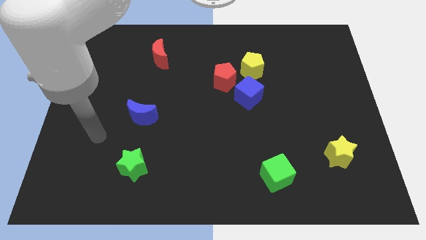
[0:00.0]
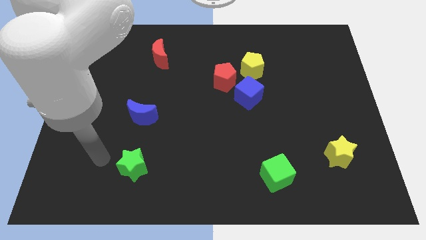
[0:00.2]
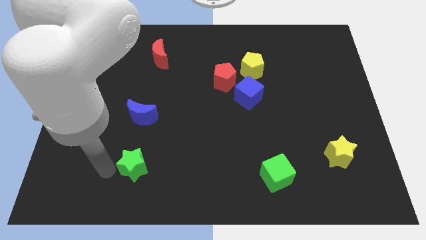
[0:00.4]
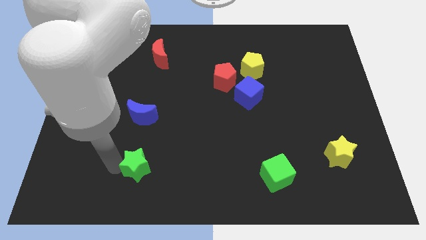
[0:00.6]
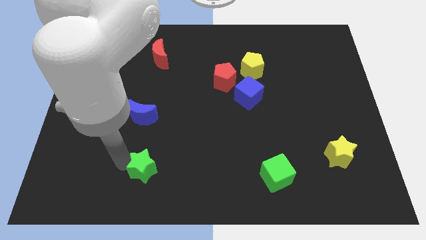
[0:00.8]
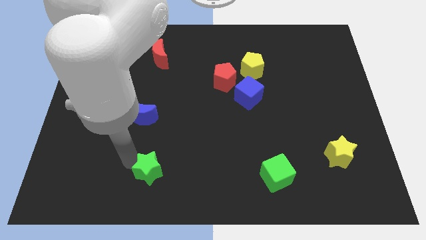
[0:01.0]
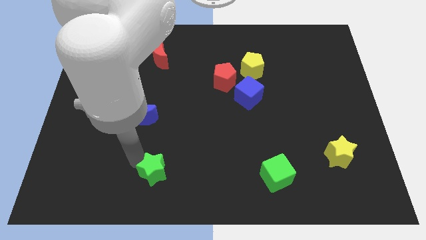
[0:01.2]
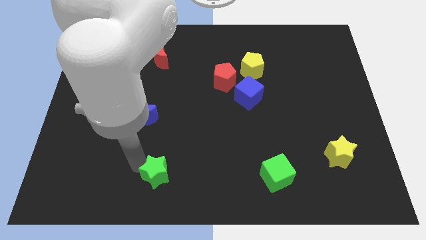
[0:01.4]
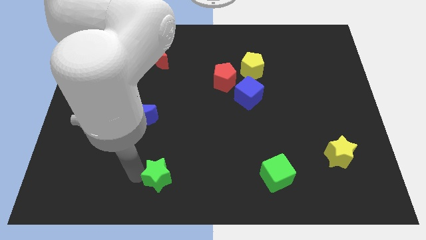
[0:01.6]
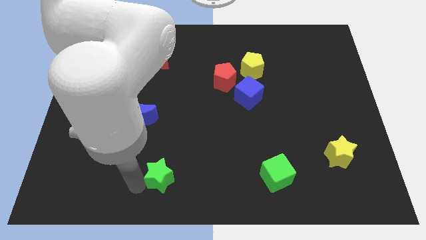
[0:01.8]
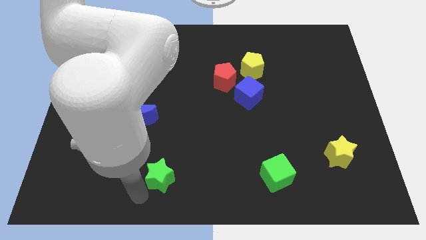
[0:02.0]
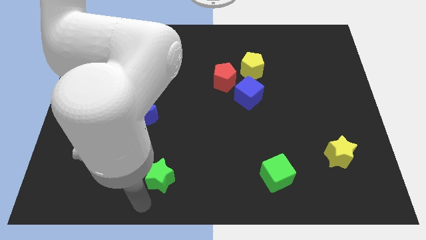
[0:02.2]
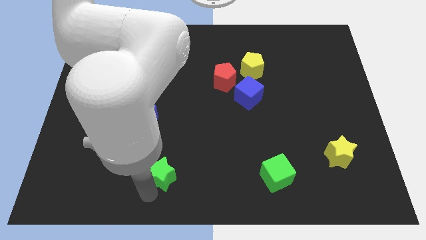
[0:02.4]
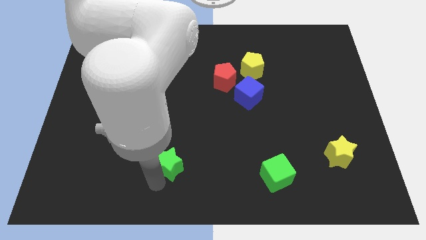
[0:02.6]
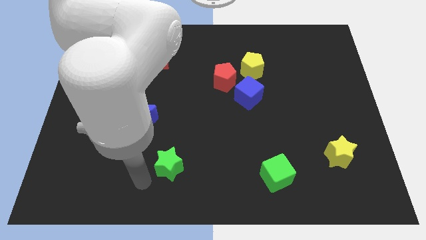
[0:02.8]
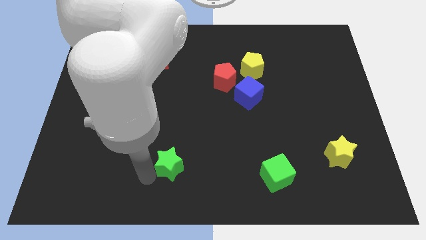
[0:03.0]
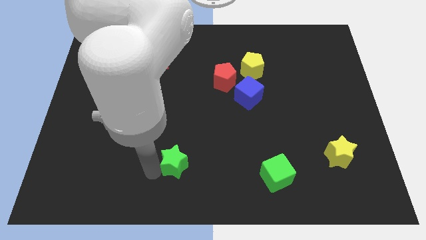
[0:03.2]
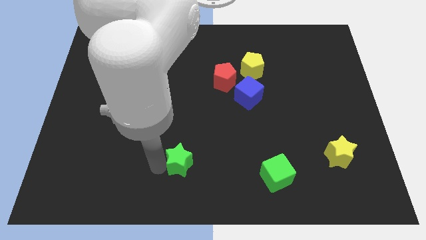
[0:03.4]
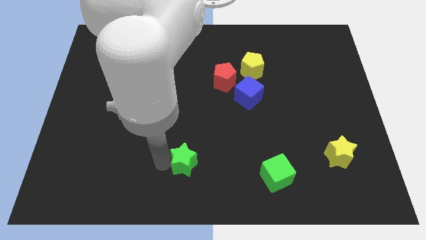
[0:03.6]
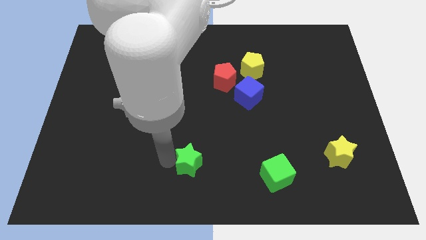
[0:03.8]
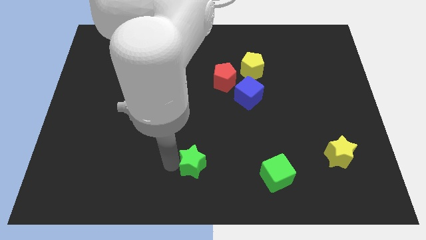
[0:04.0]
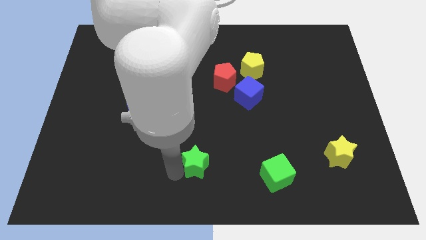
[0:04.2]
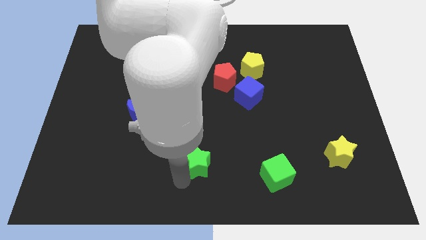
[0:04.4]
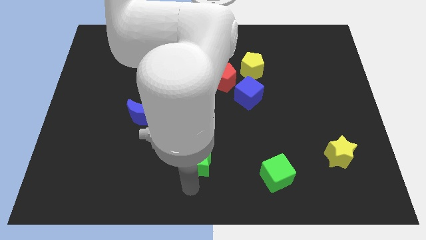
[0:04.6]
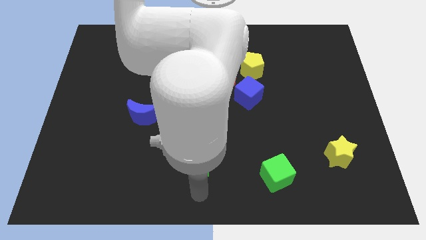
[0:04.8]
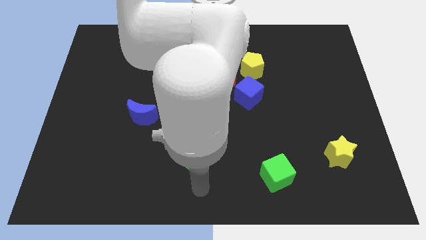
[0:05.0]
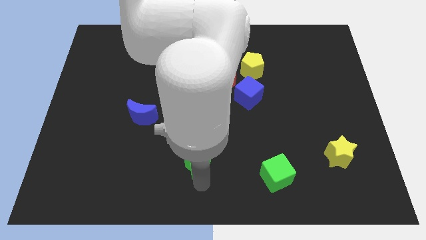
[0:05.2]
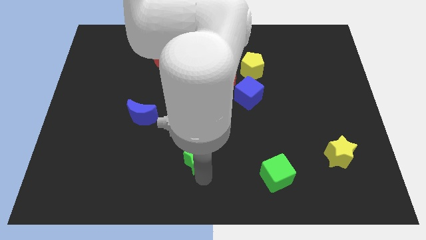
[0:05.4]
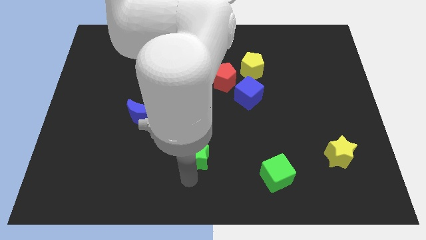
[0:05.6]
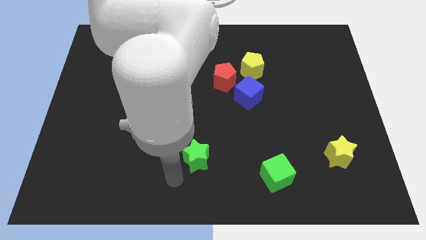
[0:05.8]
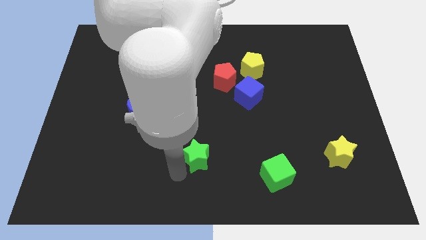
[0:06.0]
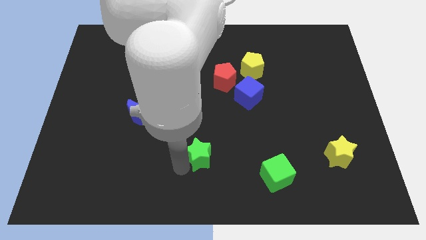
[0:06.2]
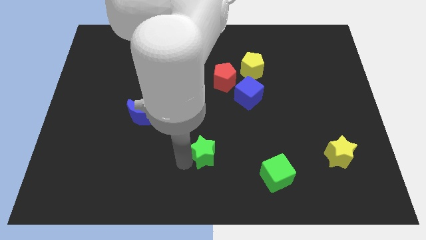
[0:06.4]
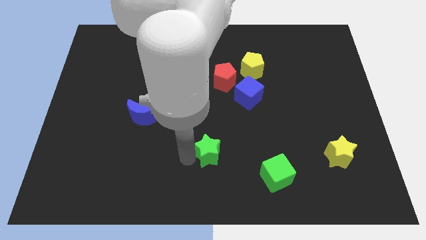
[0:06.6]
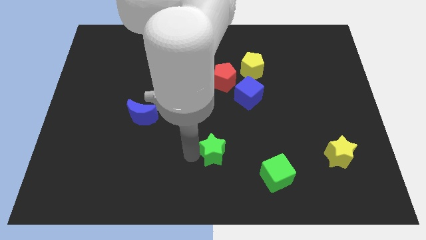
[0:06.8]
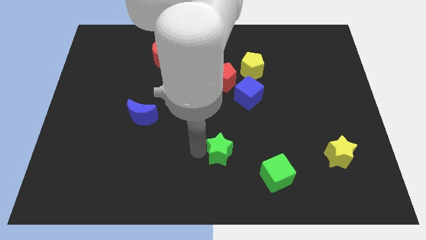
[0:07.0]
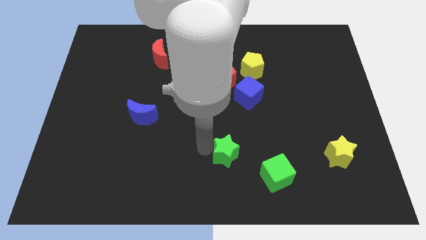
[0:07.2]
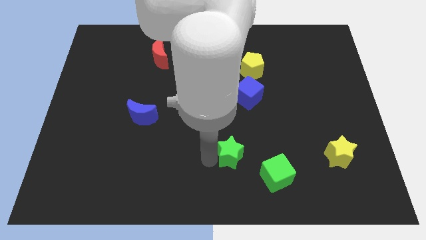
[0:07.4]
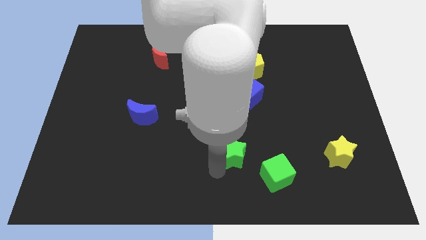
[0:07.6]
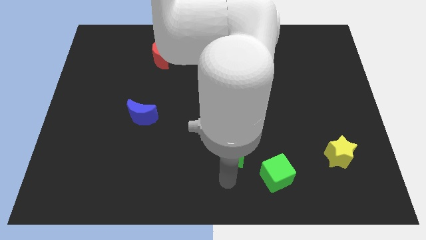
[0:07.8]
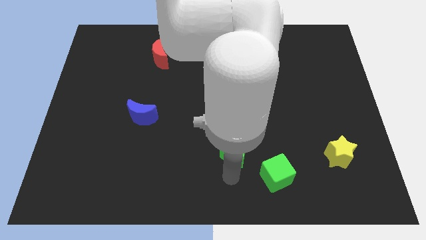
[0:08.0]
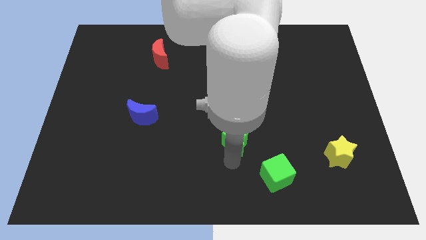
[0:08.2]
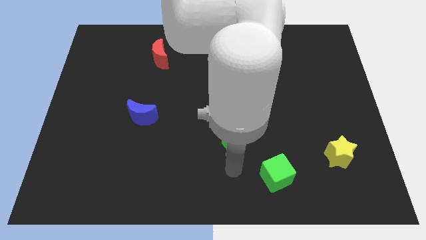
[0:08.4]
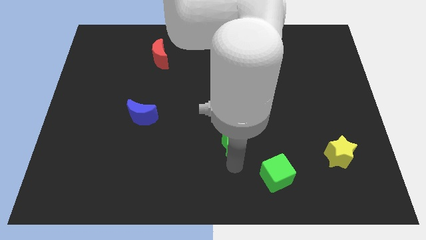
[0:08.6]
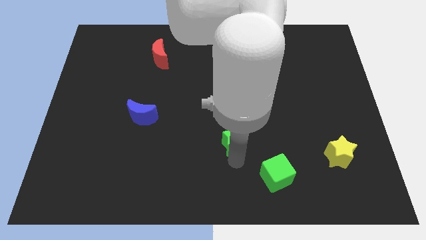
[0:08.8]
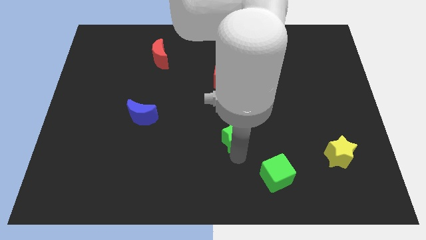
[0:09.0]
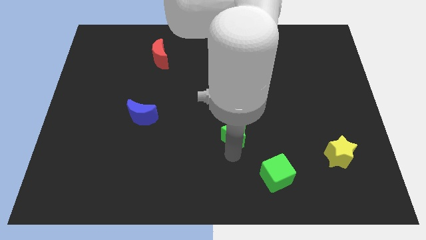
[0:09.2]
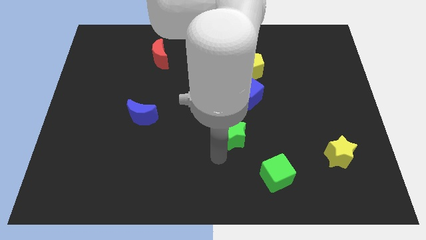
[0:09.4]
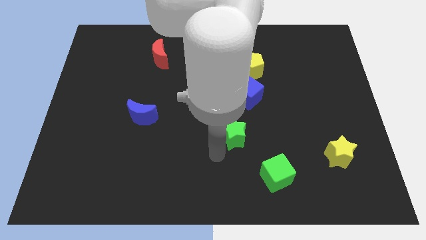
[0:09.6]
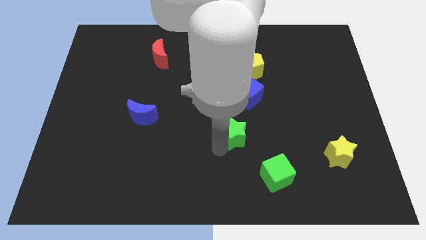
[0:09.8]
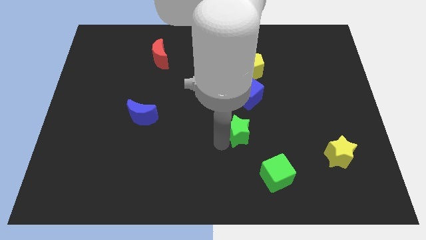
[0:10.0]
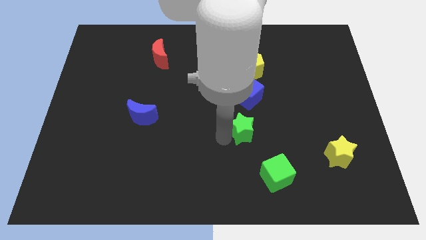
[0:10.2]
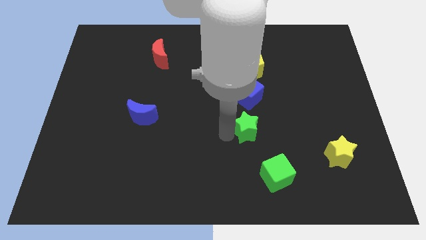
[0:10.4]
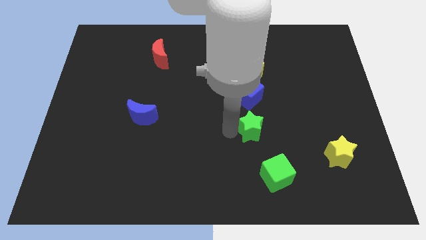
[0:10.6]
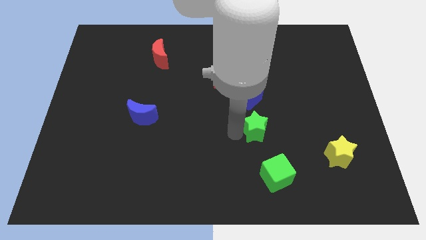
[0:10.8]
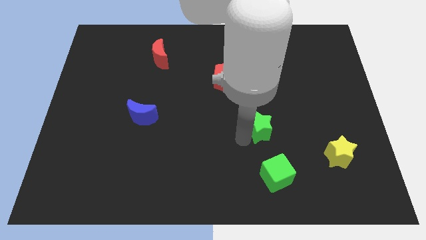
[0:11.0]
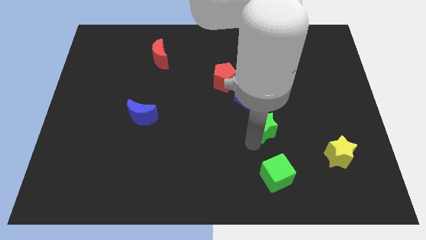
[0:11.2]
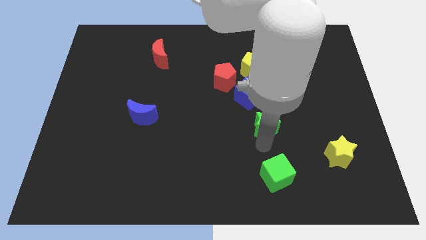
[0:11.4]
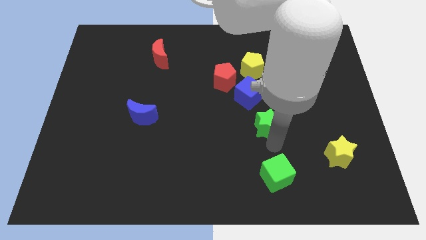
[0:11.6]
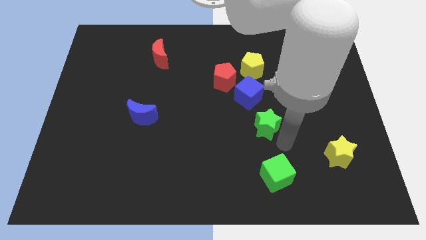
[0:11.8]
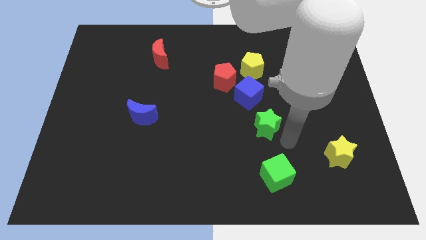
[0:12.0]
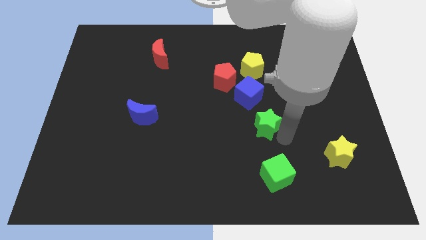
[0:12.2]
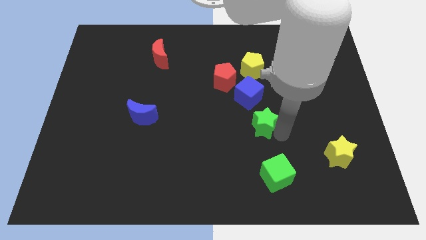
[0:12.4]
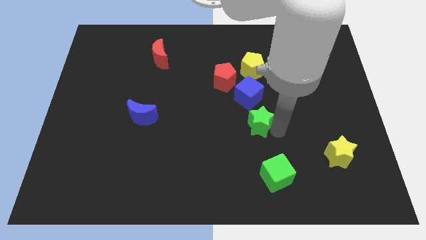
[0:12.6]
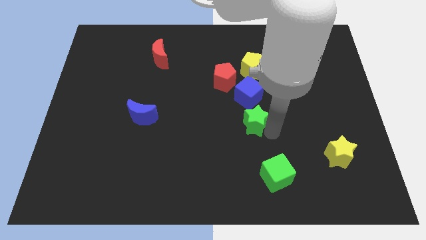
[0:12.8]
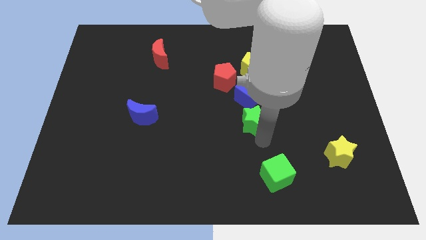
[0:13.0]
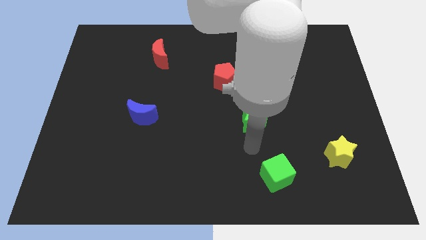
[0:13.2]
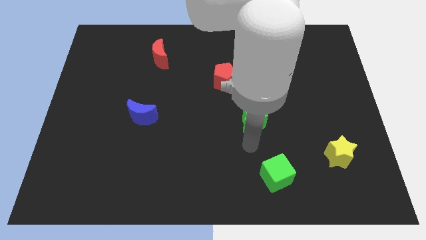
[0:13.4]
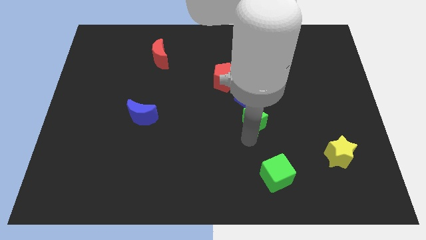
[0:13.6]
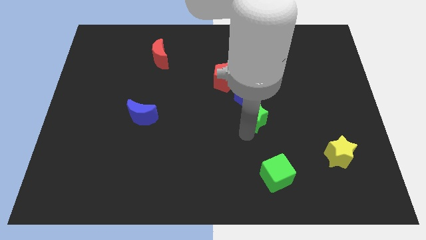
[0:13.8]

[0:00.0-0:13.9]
push the green star to the bottom side of the yellow pentagon

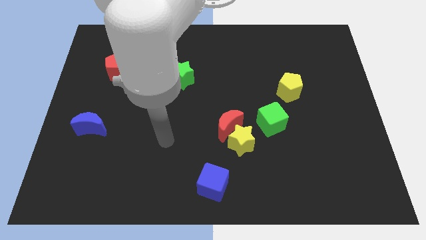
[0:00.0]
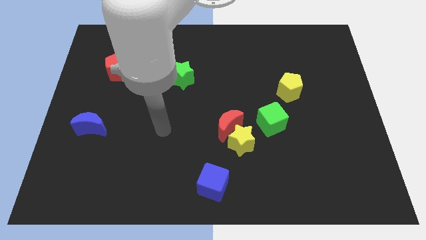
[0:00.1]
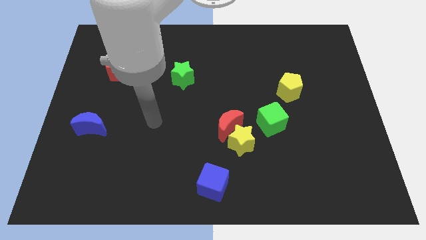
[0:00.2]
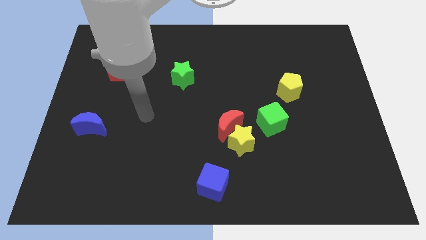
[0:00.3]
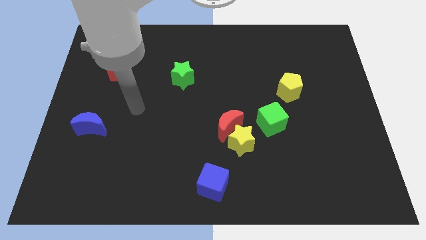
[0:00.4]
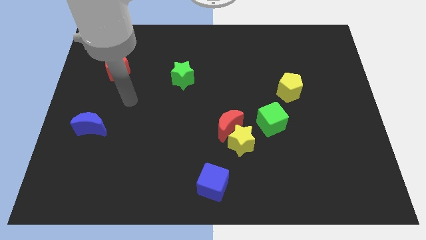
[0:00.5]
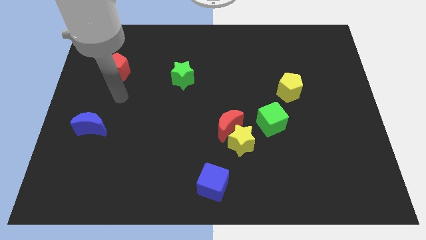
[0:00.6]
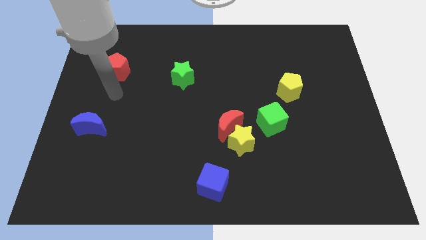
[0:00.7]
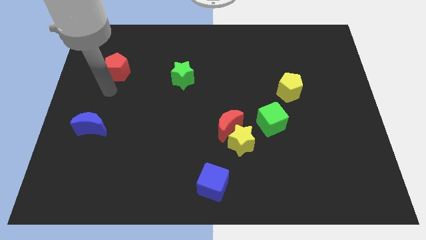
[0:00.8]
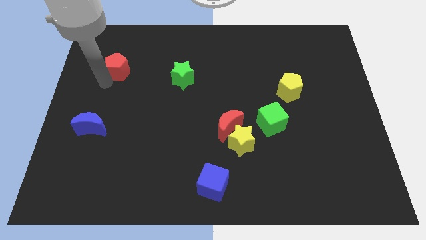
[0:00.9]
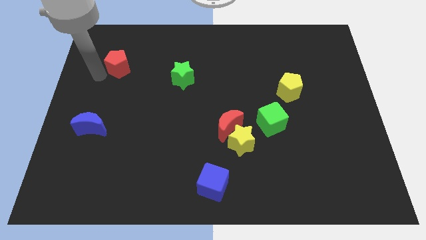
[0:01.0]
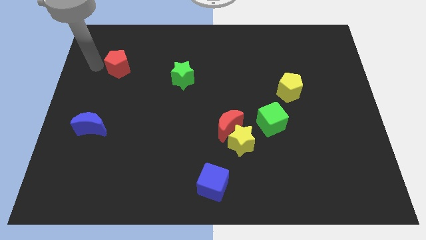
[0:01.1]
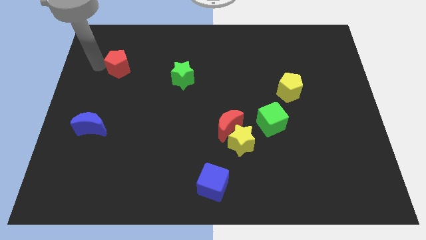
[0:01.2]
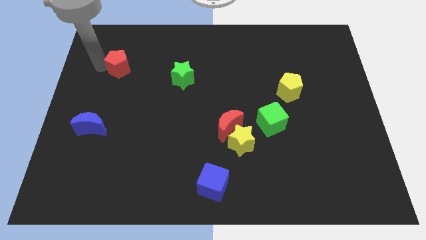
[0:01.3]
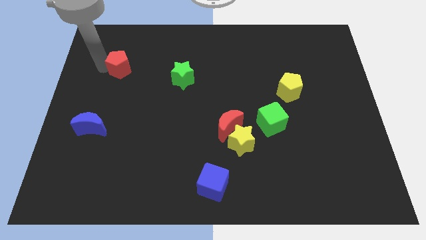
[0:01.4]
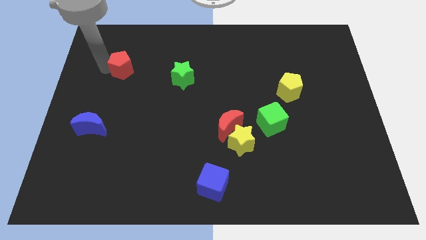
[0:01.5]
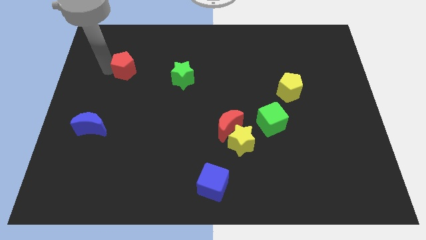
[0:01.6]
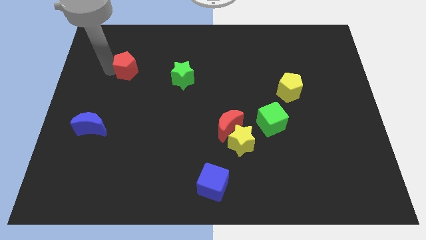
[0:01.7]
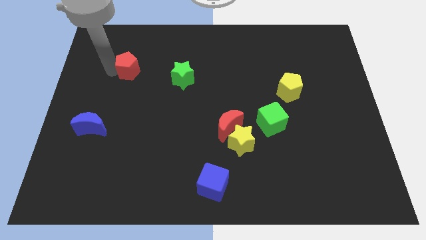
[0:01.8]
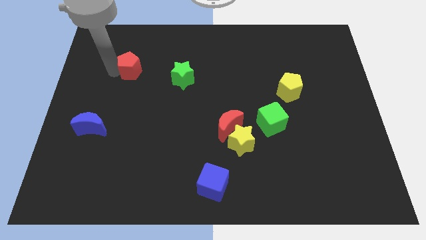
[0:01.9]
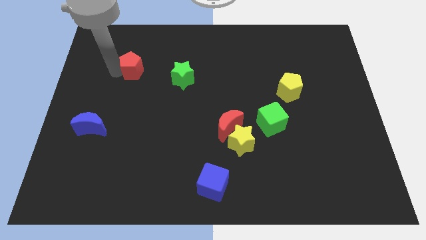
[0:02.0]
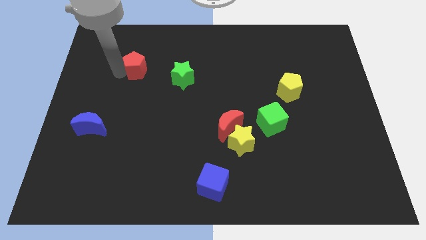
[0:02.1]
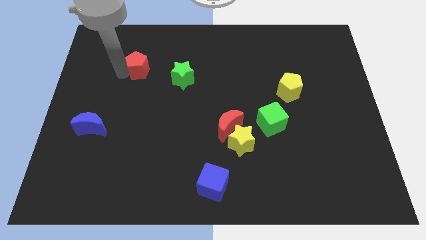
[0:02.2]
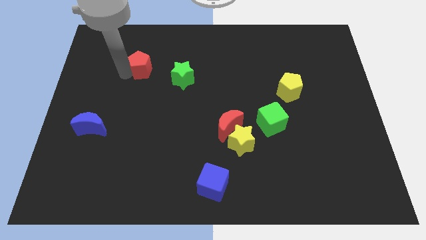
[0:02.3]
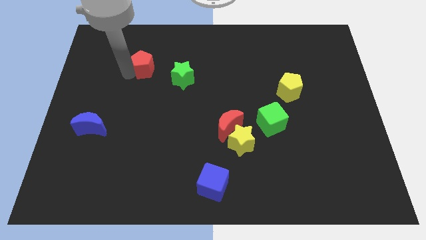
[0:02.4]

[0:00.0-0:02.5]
push the red pentagon to the top left side of the green star
